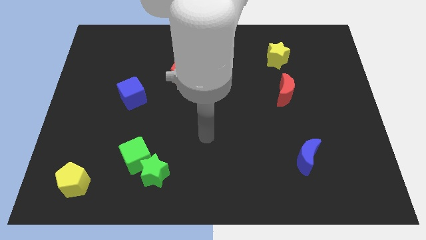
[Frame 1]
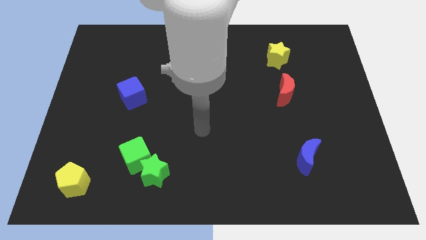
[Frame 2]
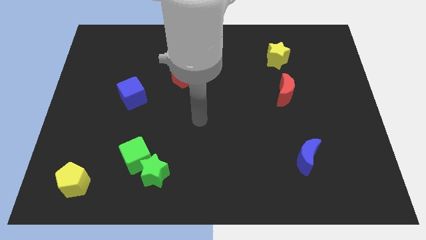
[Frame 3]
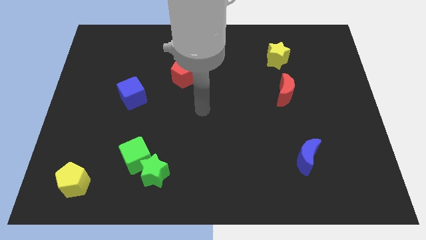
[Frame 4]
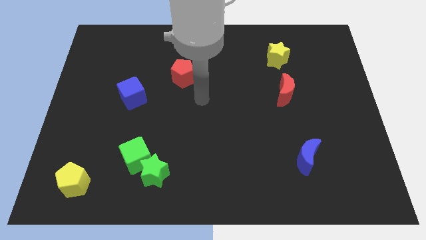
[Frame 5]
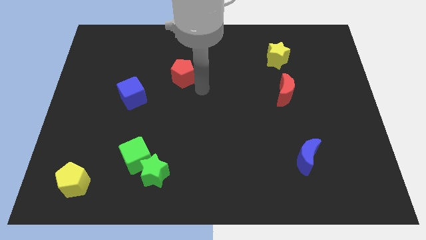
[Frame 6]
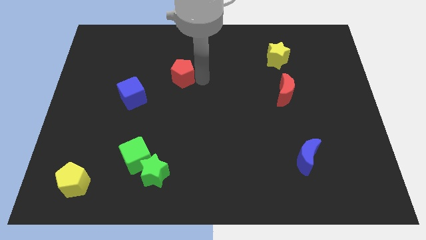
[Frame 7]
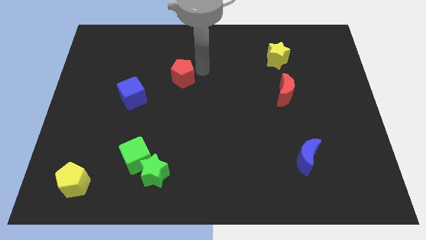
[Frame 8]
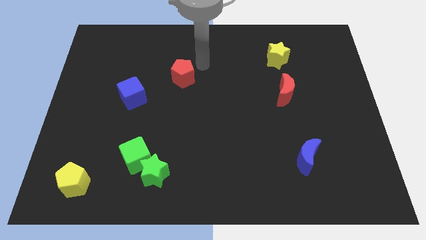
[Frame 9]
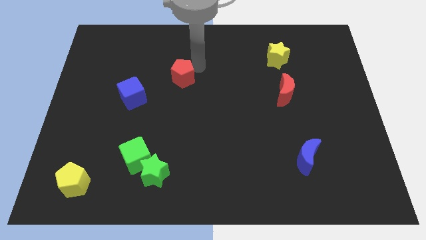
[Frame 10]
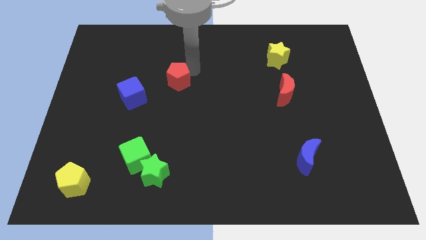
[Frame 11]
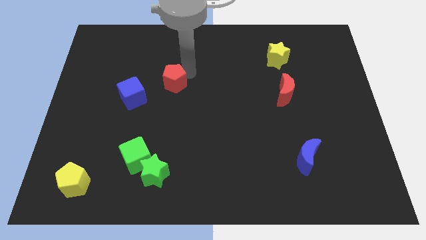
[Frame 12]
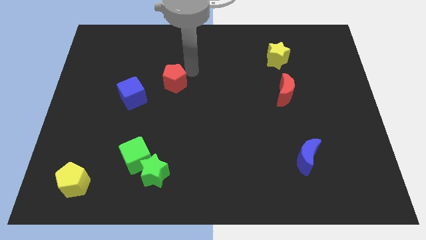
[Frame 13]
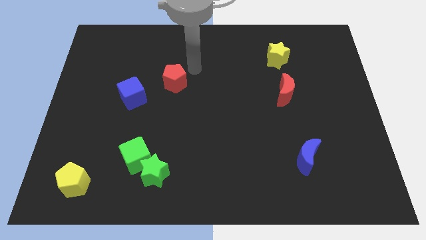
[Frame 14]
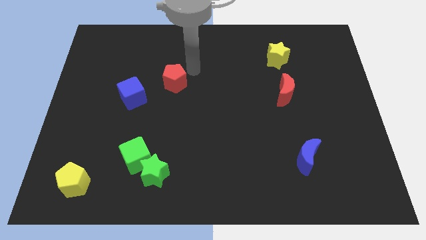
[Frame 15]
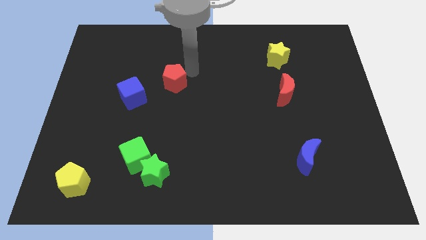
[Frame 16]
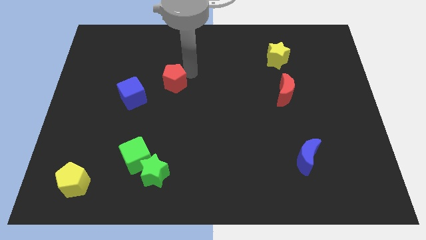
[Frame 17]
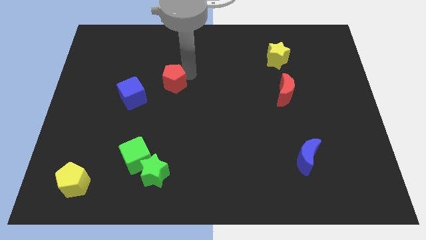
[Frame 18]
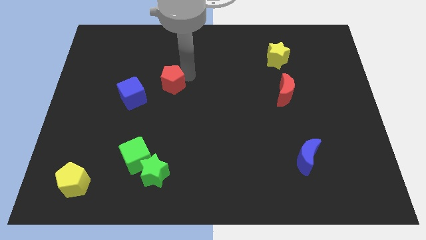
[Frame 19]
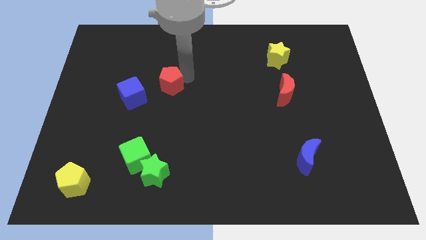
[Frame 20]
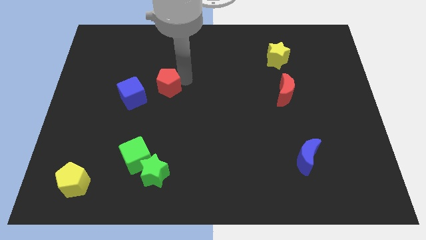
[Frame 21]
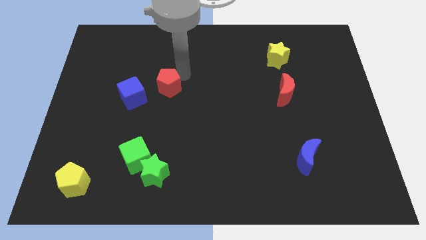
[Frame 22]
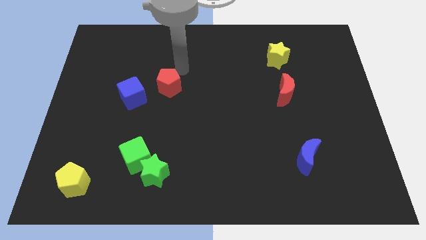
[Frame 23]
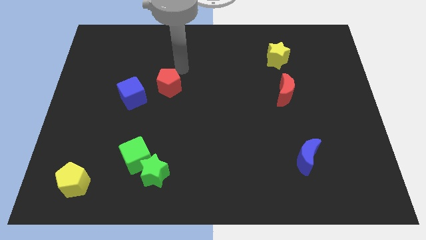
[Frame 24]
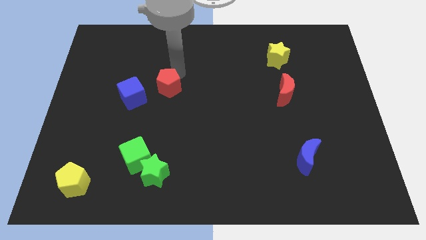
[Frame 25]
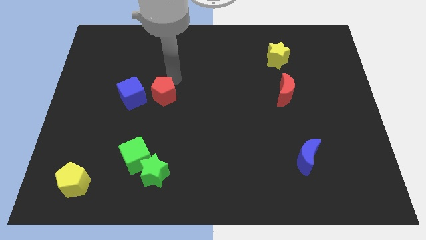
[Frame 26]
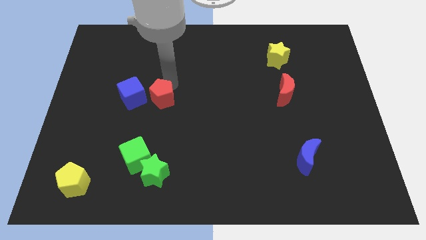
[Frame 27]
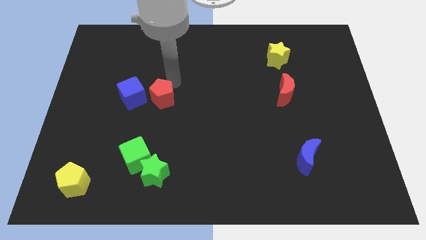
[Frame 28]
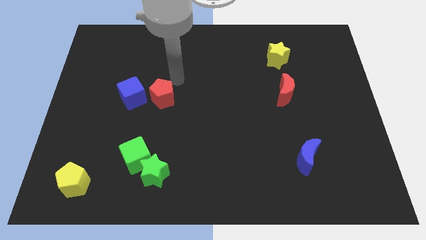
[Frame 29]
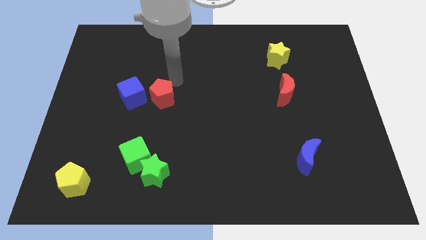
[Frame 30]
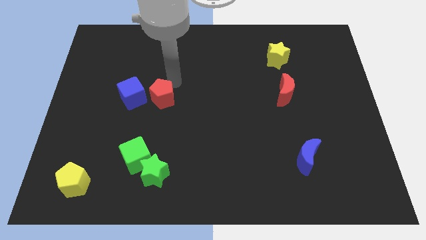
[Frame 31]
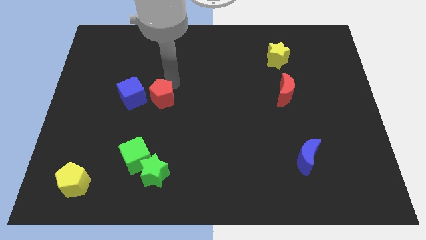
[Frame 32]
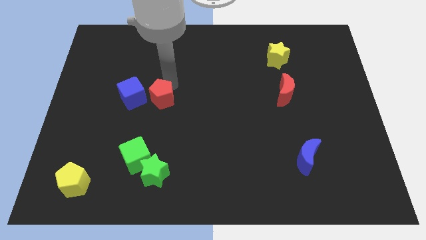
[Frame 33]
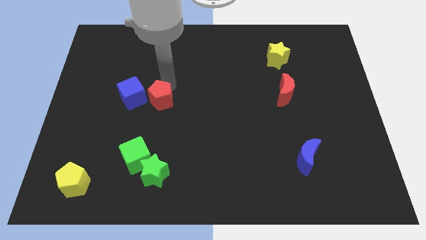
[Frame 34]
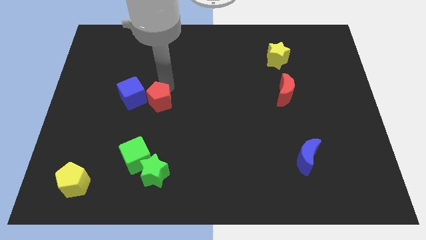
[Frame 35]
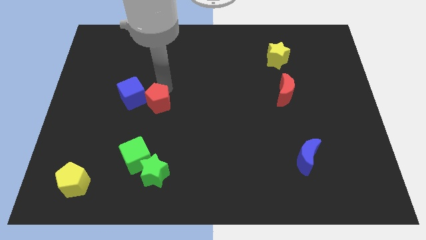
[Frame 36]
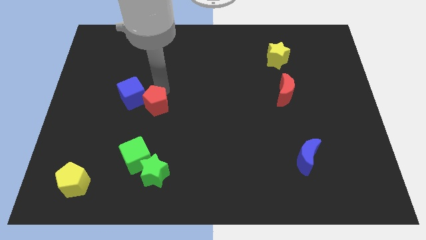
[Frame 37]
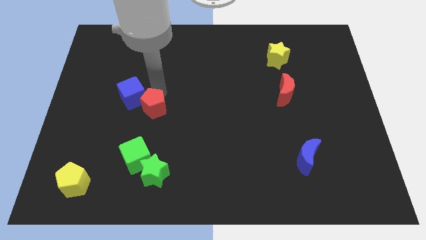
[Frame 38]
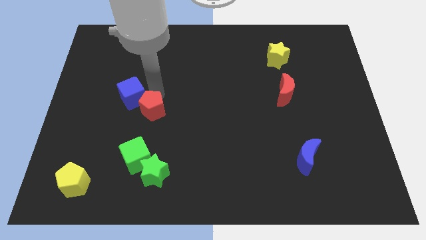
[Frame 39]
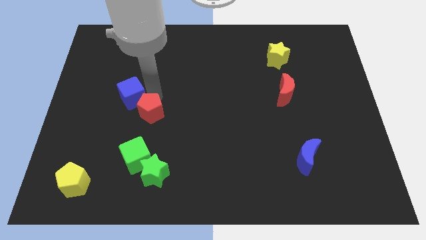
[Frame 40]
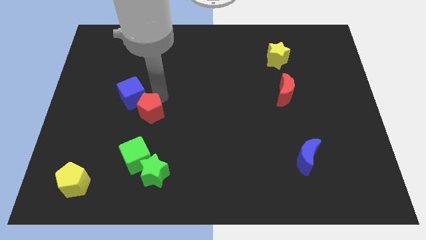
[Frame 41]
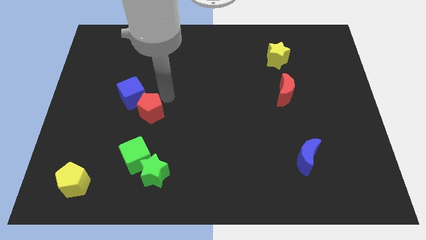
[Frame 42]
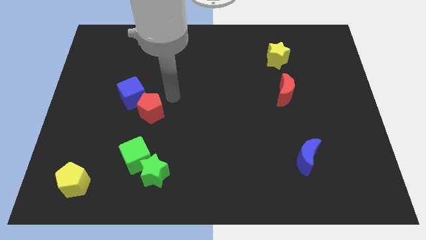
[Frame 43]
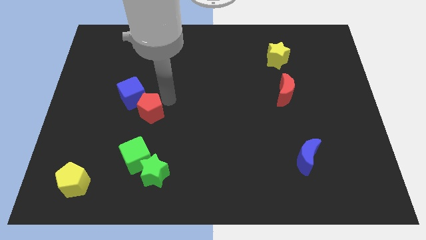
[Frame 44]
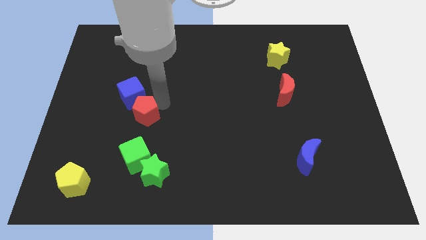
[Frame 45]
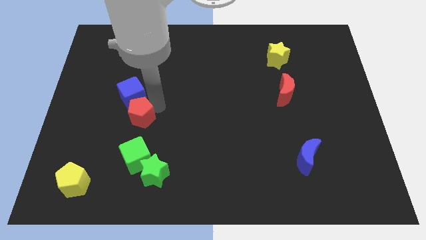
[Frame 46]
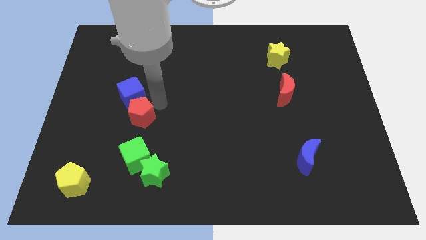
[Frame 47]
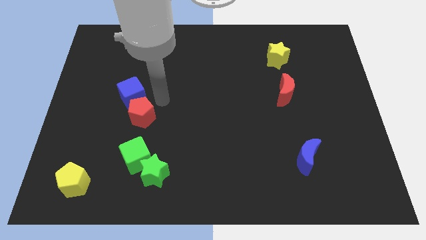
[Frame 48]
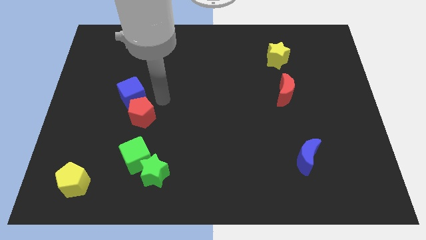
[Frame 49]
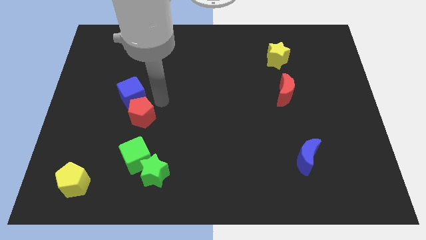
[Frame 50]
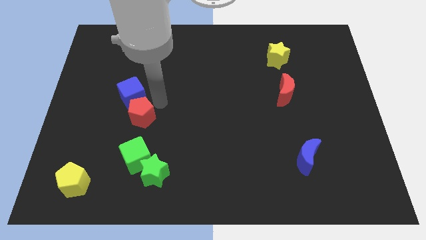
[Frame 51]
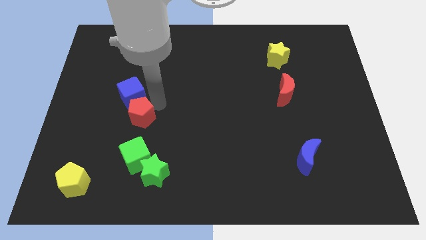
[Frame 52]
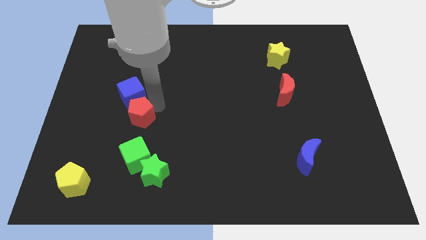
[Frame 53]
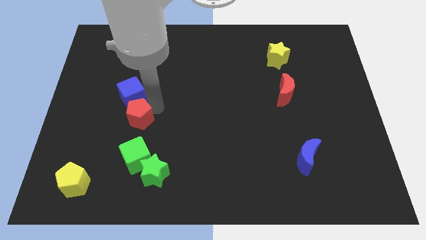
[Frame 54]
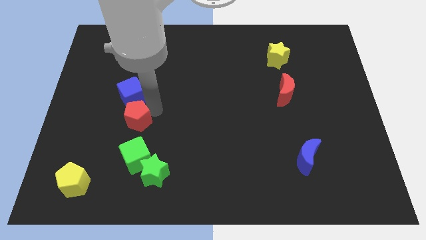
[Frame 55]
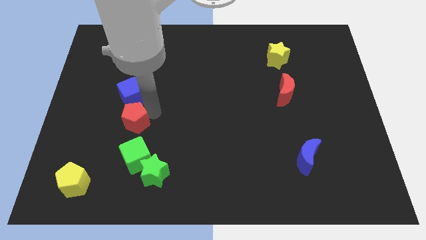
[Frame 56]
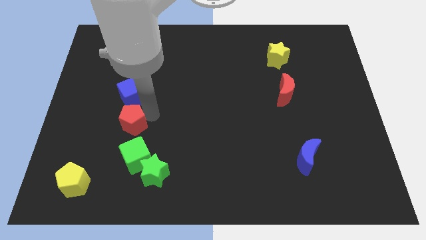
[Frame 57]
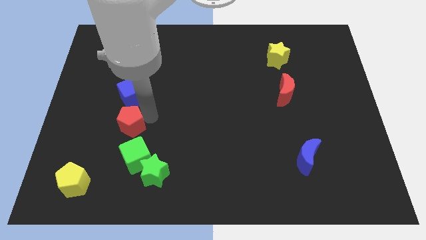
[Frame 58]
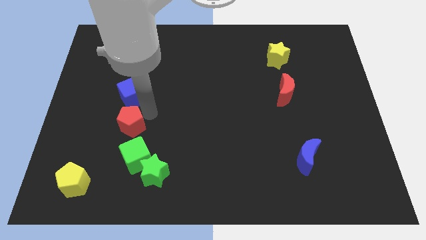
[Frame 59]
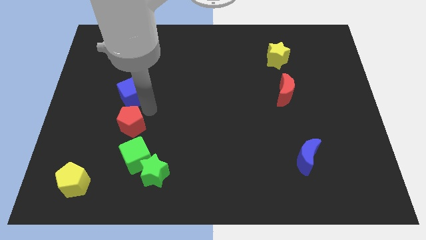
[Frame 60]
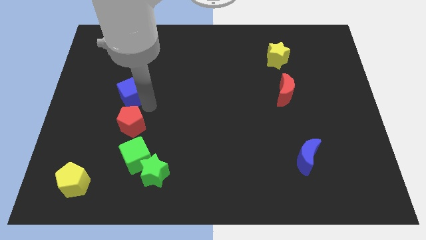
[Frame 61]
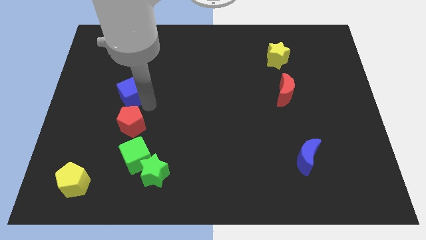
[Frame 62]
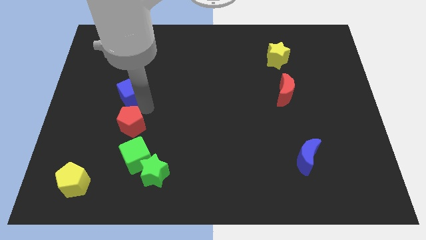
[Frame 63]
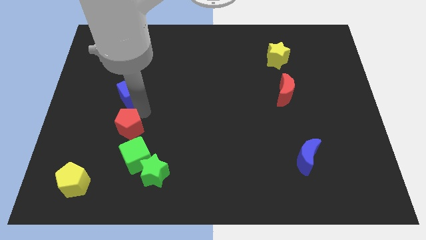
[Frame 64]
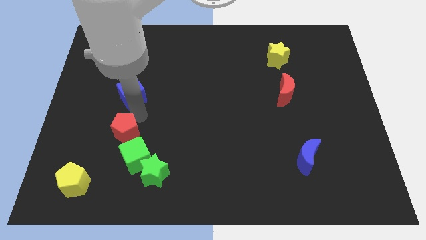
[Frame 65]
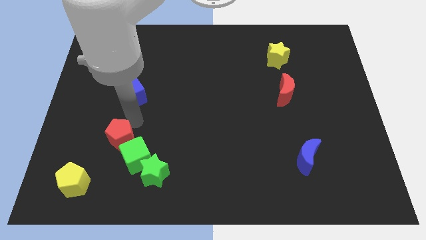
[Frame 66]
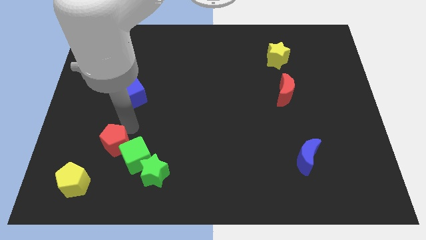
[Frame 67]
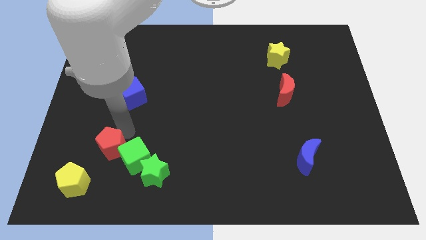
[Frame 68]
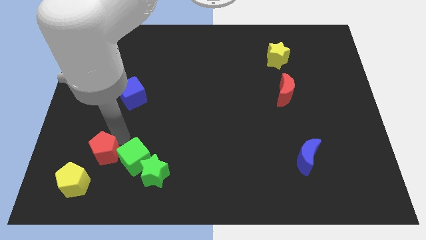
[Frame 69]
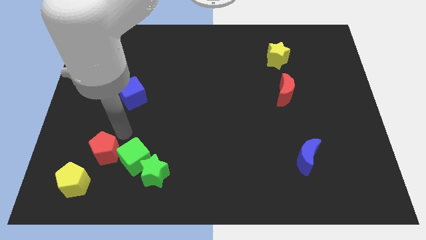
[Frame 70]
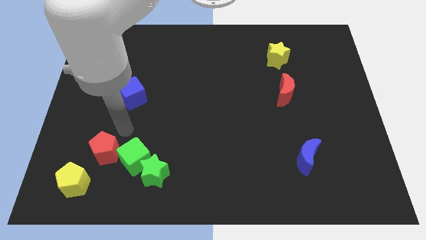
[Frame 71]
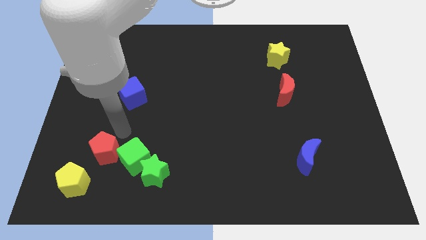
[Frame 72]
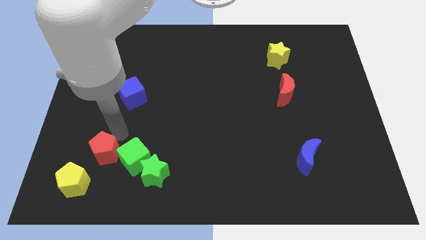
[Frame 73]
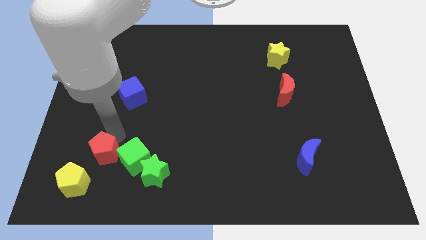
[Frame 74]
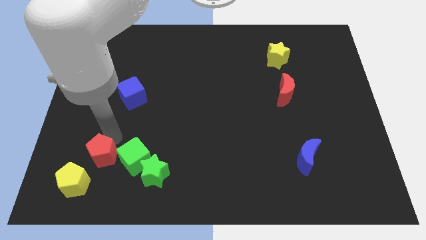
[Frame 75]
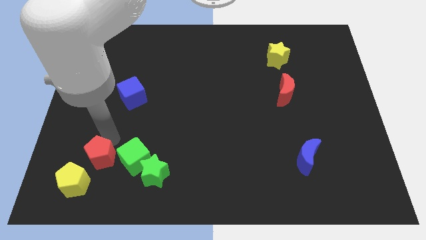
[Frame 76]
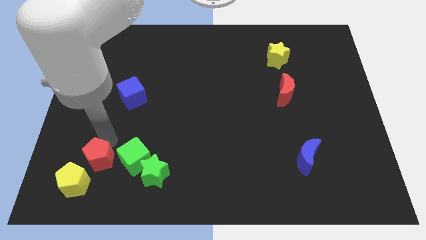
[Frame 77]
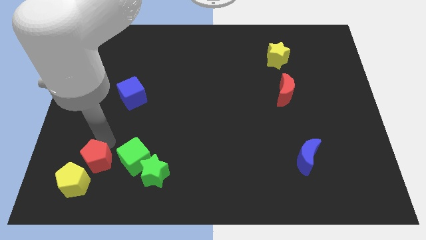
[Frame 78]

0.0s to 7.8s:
push the red pentagon to the yellow pentagon
